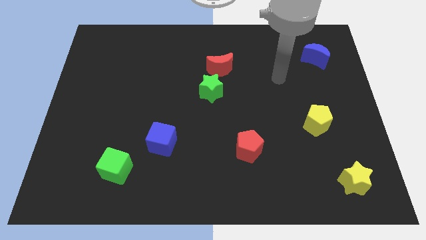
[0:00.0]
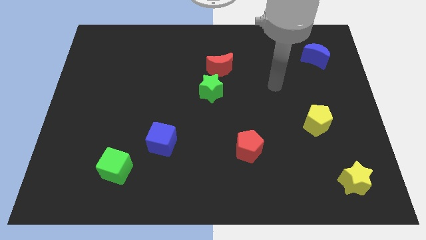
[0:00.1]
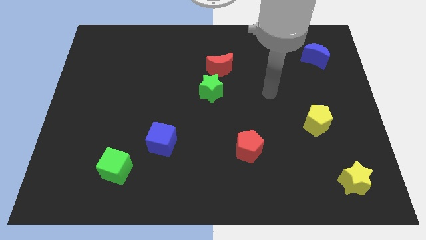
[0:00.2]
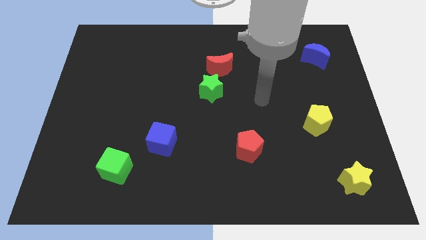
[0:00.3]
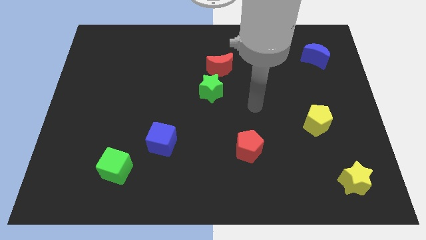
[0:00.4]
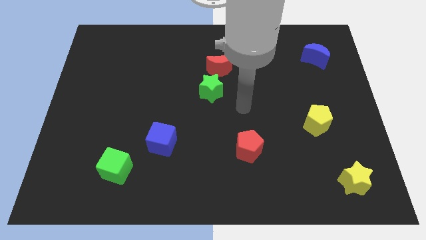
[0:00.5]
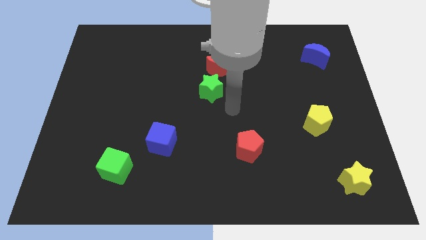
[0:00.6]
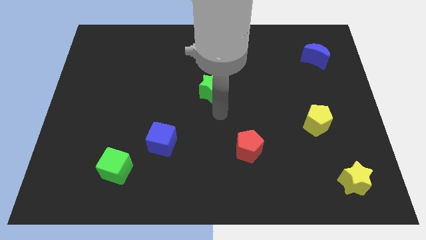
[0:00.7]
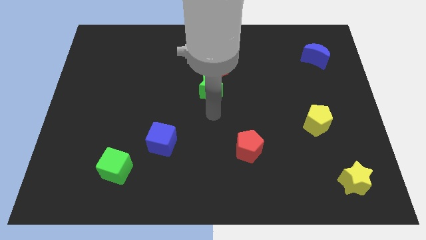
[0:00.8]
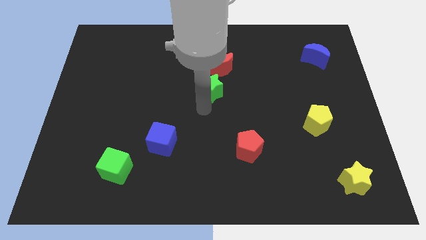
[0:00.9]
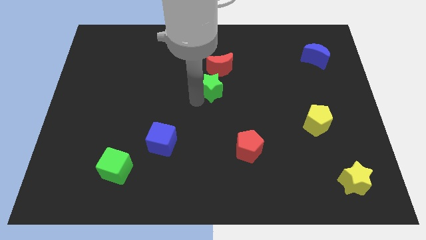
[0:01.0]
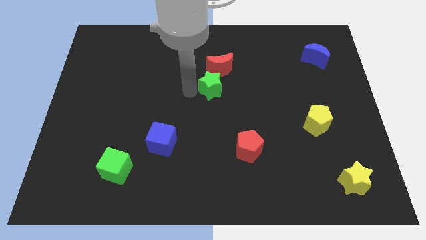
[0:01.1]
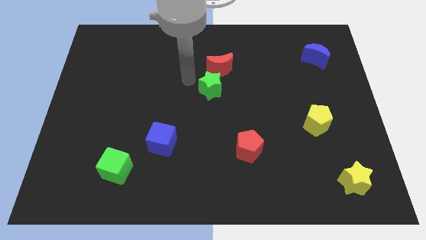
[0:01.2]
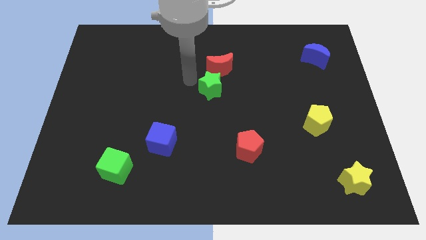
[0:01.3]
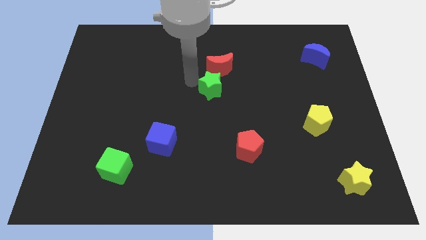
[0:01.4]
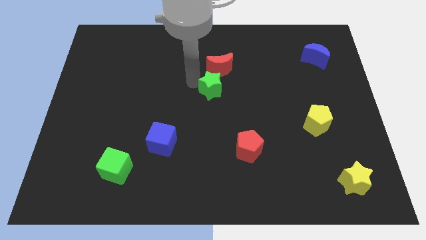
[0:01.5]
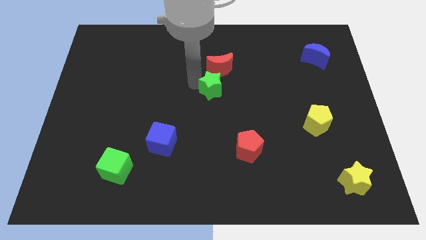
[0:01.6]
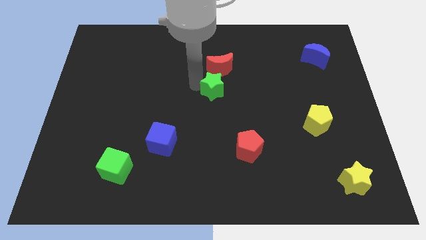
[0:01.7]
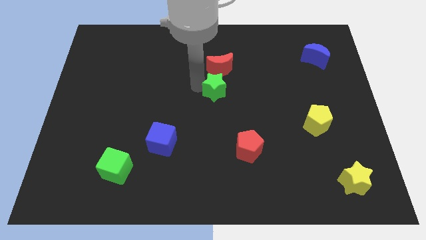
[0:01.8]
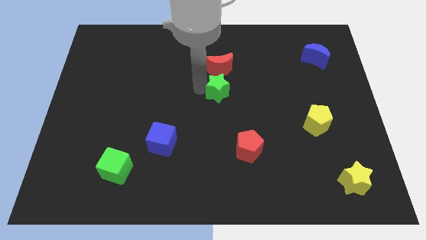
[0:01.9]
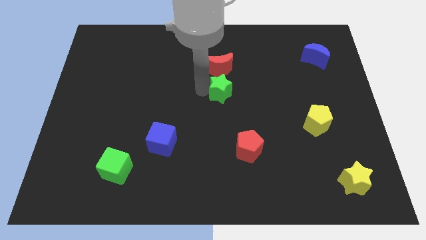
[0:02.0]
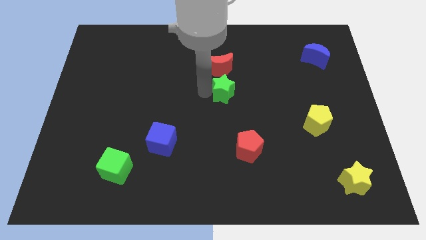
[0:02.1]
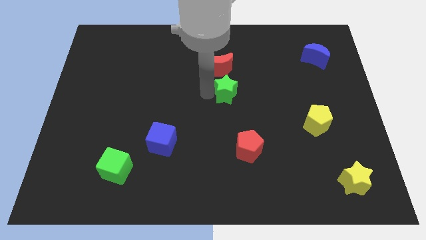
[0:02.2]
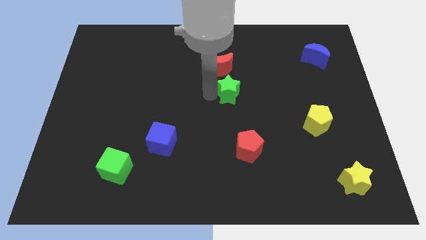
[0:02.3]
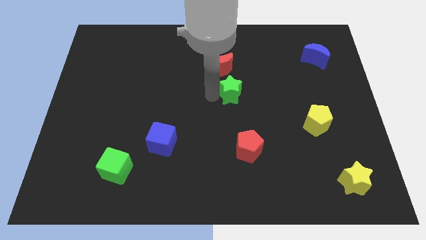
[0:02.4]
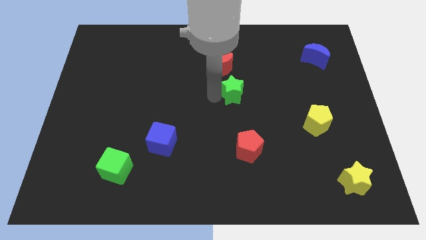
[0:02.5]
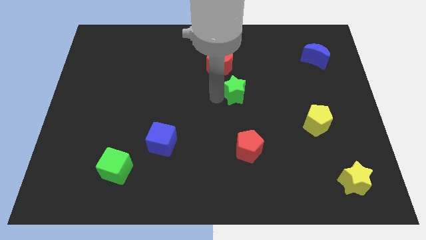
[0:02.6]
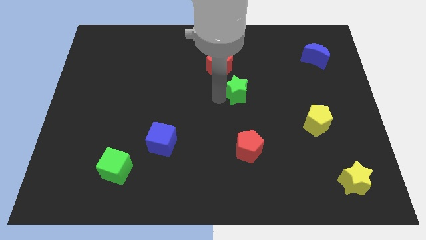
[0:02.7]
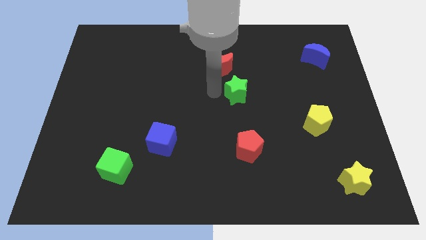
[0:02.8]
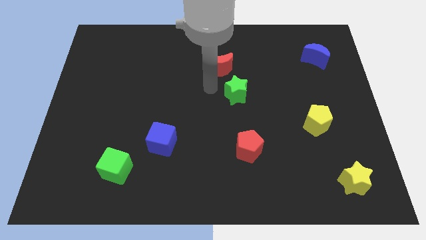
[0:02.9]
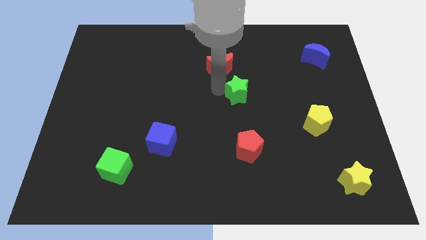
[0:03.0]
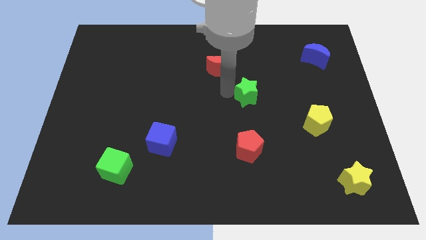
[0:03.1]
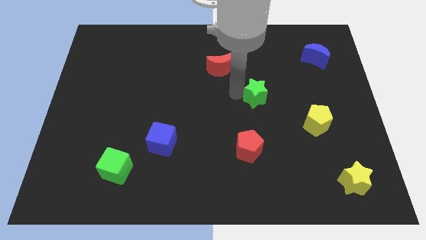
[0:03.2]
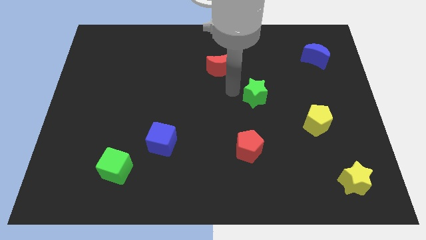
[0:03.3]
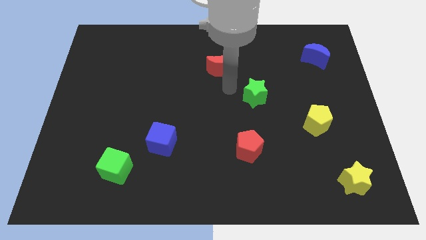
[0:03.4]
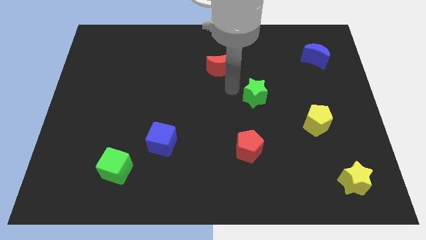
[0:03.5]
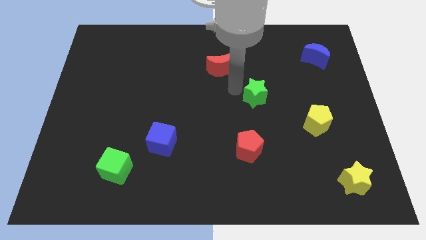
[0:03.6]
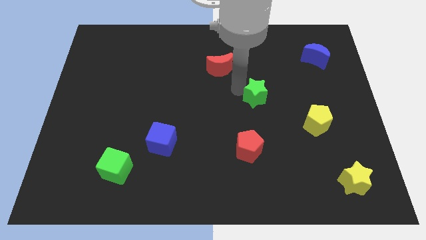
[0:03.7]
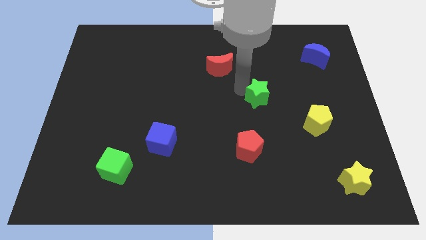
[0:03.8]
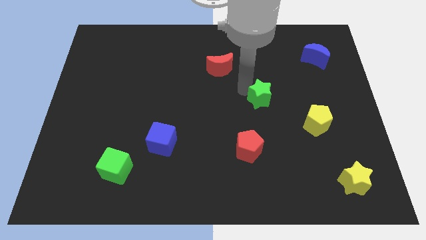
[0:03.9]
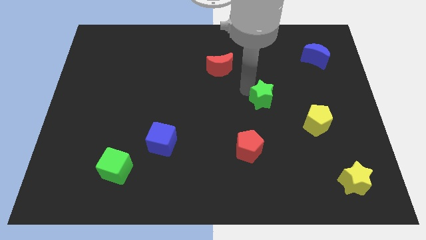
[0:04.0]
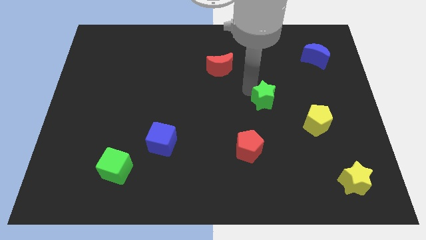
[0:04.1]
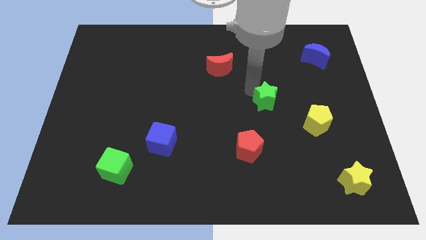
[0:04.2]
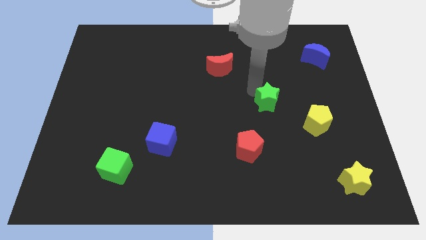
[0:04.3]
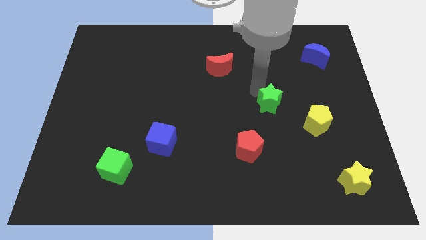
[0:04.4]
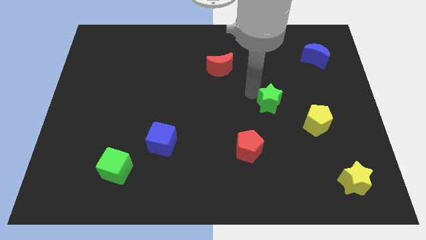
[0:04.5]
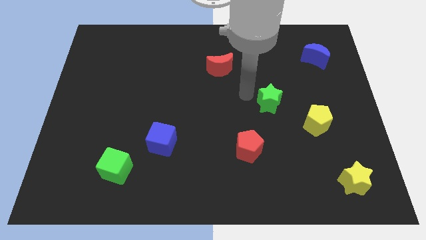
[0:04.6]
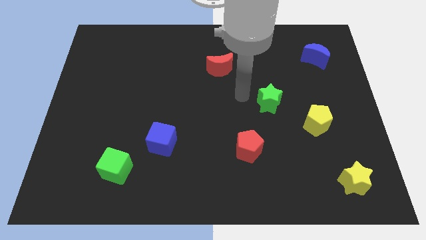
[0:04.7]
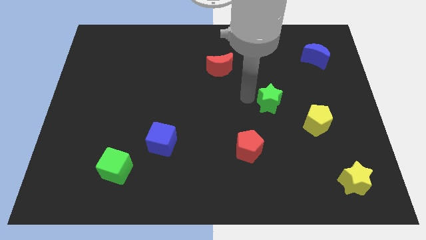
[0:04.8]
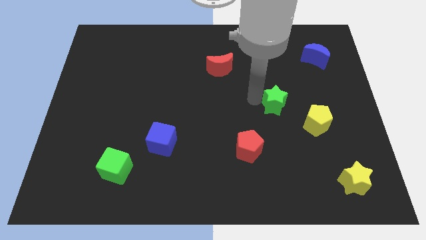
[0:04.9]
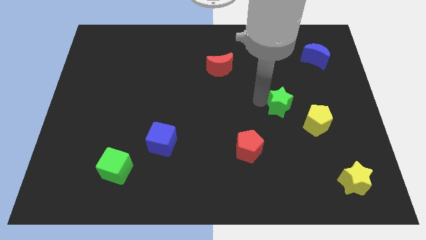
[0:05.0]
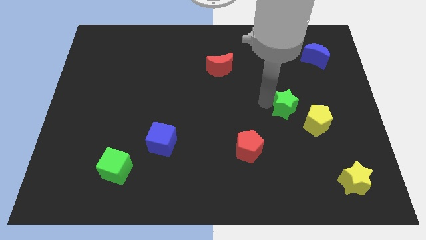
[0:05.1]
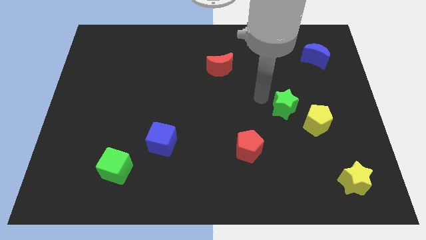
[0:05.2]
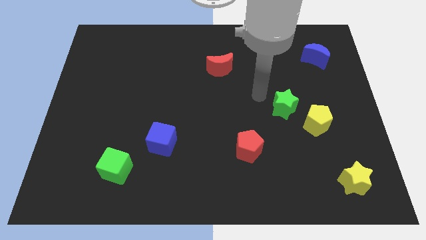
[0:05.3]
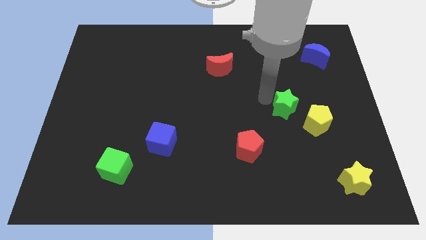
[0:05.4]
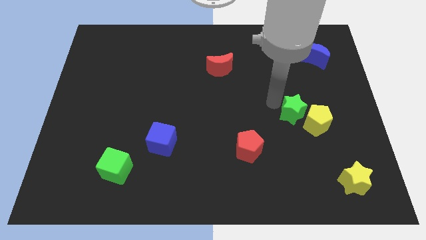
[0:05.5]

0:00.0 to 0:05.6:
move the green star next to the yellow pentagon

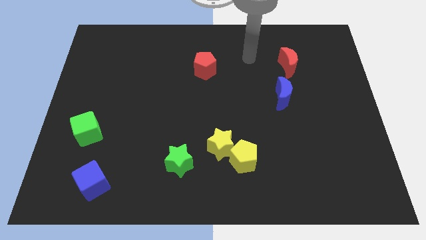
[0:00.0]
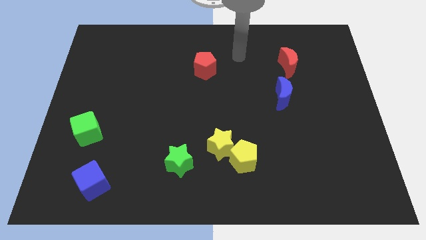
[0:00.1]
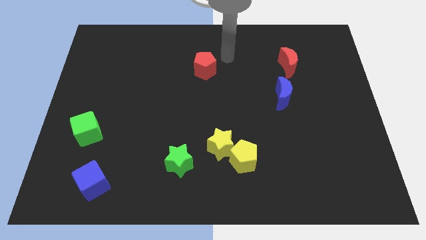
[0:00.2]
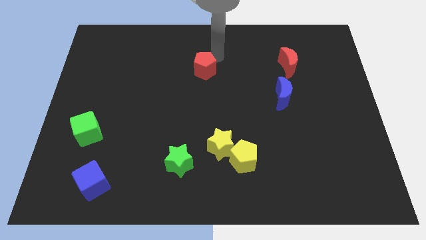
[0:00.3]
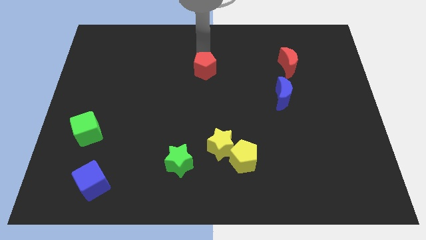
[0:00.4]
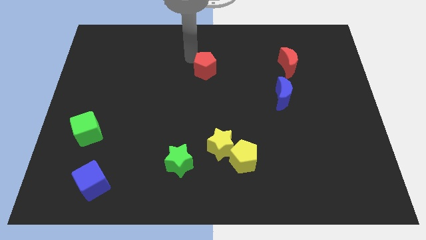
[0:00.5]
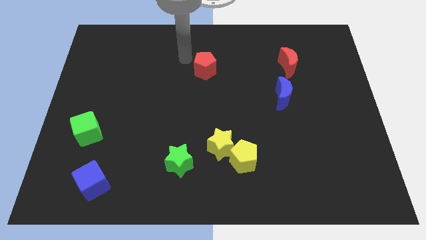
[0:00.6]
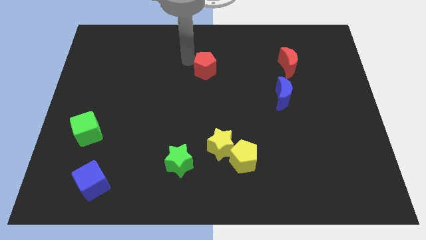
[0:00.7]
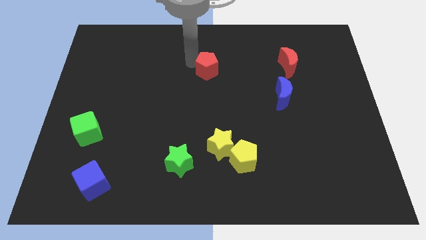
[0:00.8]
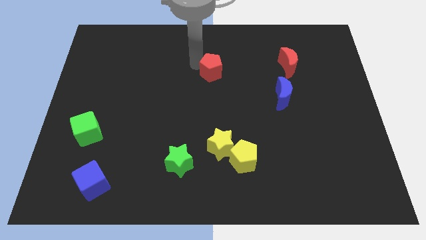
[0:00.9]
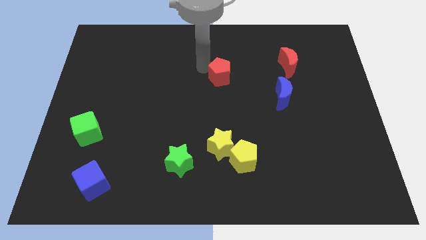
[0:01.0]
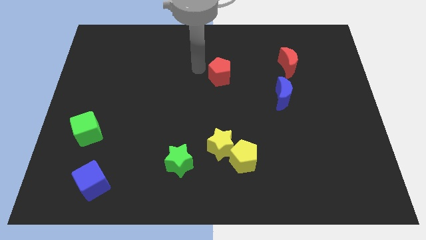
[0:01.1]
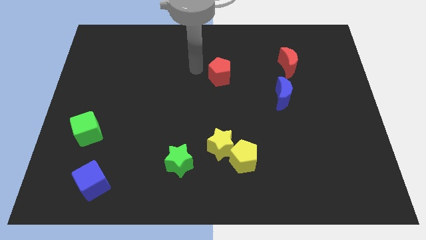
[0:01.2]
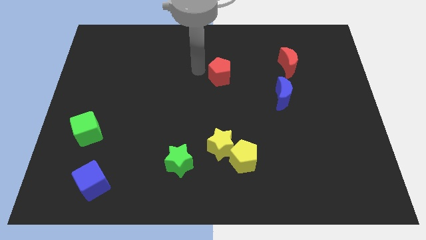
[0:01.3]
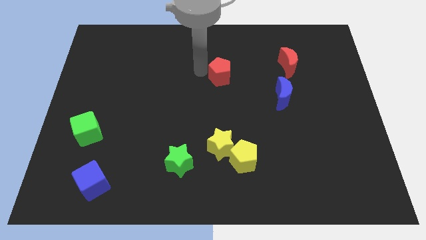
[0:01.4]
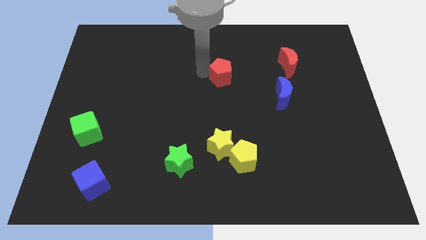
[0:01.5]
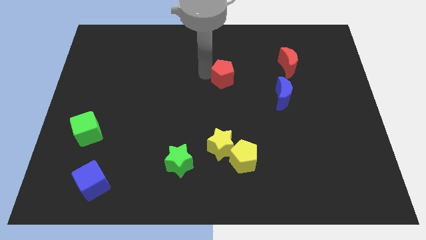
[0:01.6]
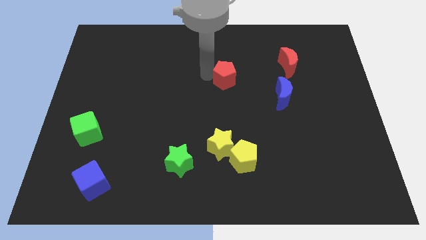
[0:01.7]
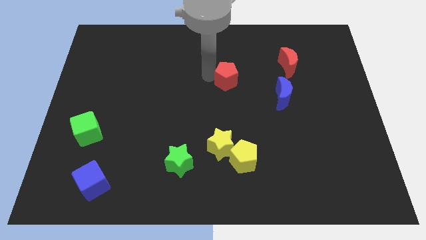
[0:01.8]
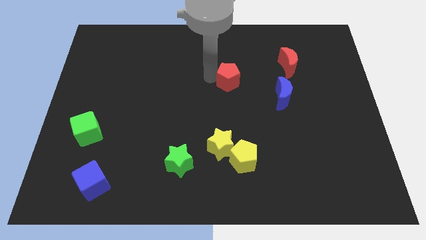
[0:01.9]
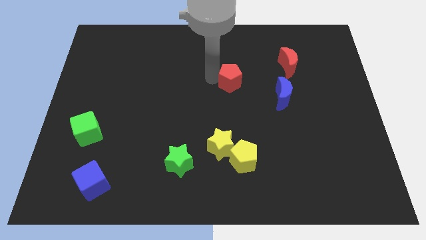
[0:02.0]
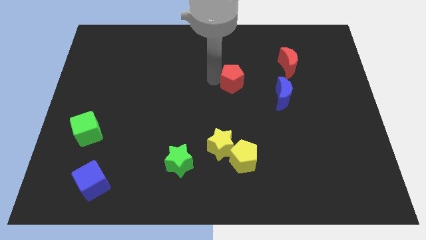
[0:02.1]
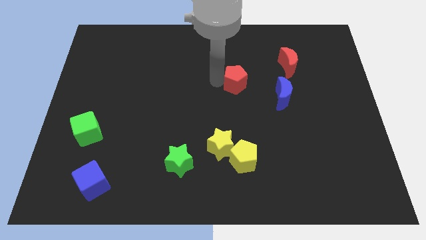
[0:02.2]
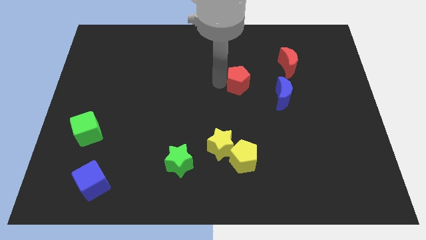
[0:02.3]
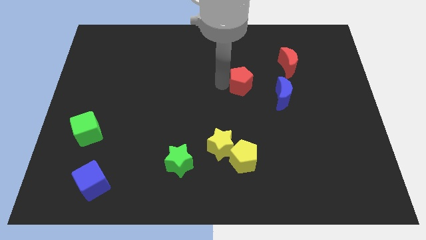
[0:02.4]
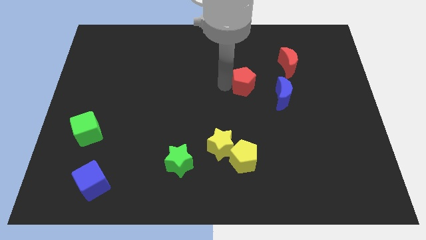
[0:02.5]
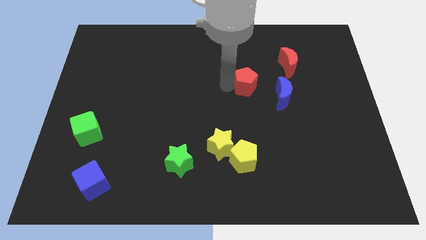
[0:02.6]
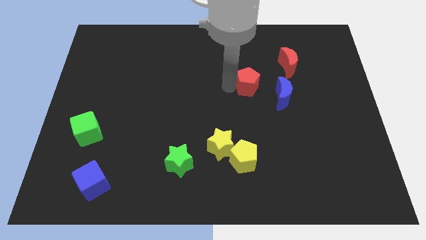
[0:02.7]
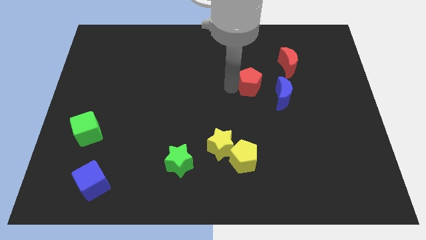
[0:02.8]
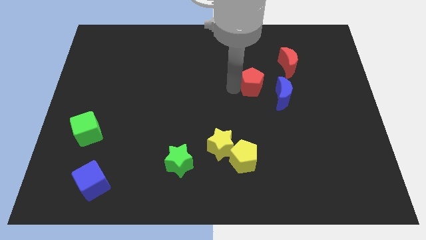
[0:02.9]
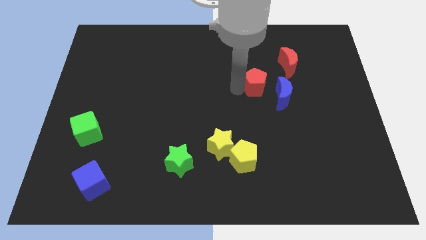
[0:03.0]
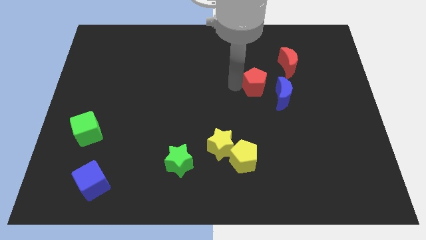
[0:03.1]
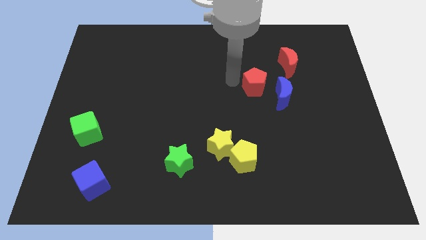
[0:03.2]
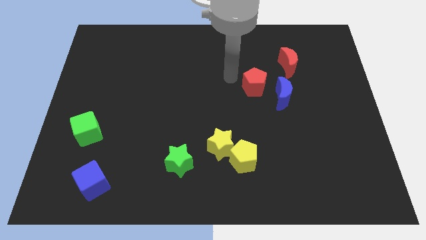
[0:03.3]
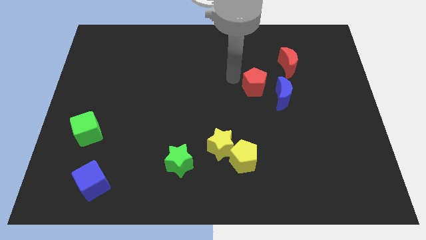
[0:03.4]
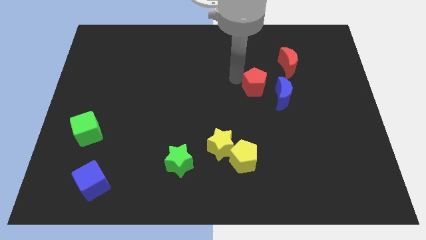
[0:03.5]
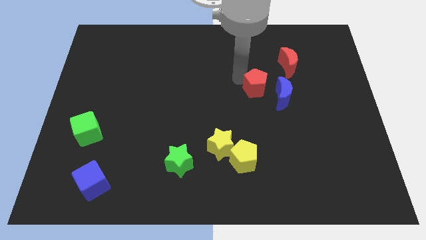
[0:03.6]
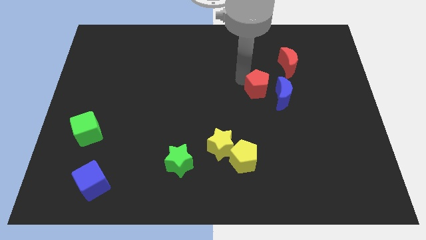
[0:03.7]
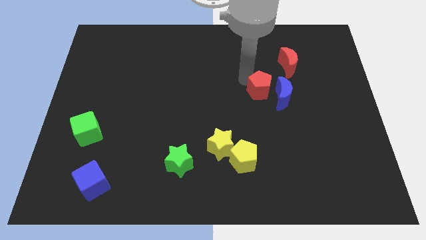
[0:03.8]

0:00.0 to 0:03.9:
push the red pentagon towards the blue moon
